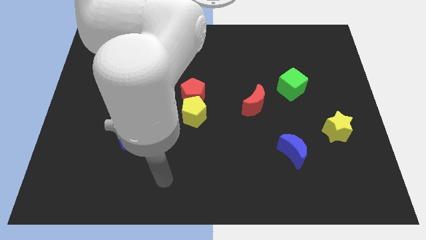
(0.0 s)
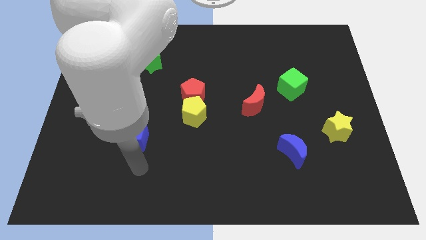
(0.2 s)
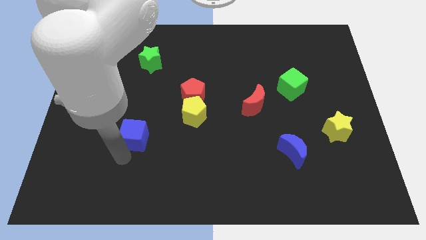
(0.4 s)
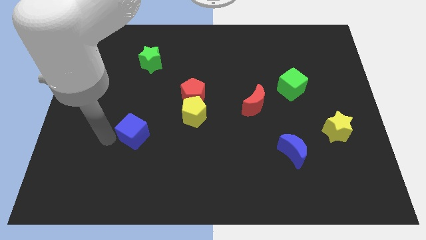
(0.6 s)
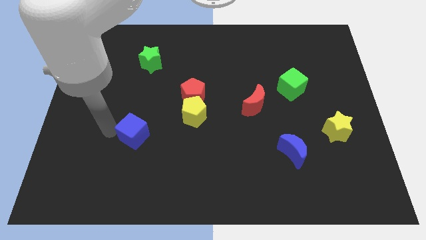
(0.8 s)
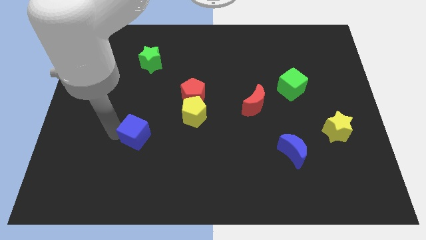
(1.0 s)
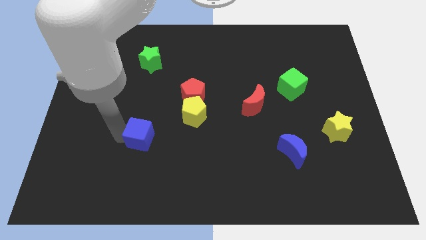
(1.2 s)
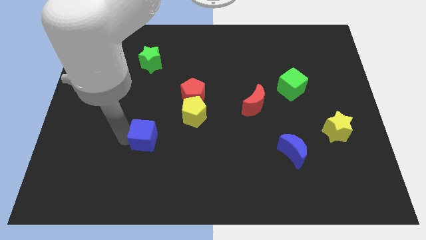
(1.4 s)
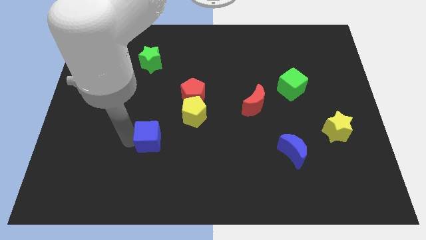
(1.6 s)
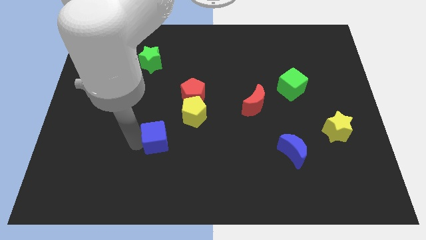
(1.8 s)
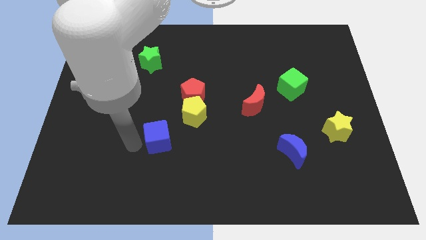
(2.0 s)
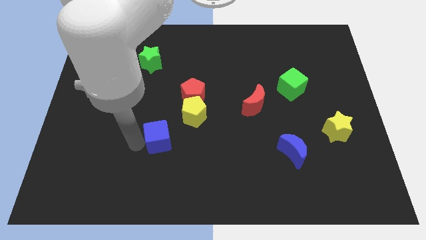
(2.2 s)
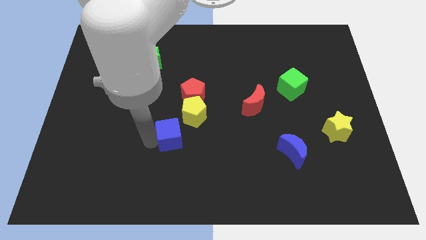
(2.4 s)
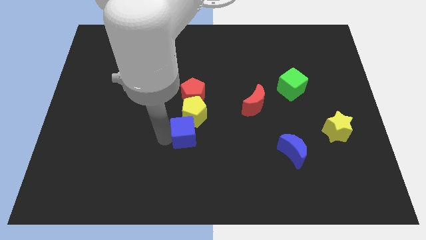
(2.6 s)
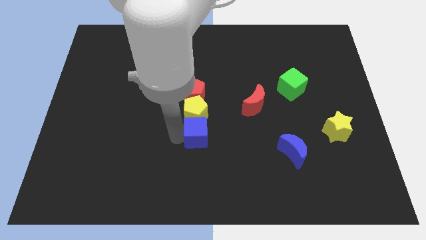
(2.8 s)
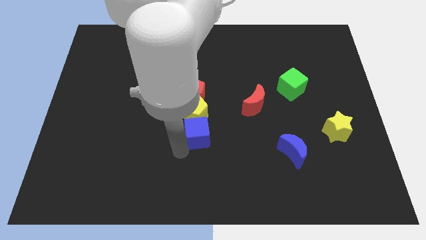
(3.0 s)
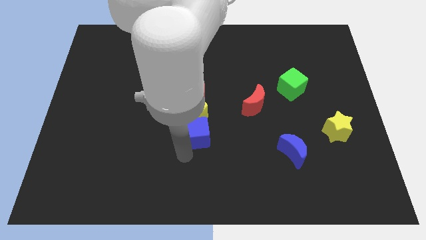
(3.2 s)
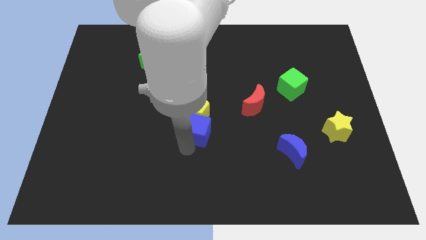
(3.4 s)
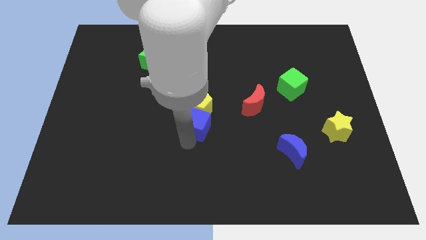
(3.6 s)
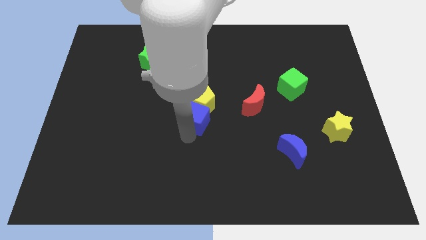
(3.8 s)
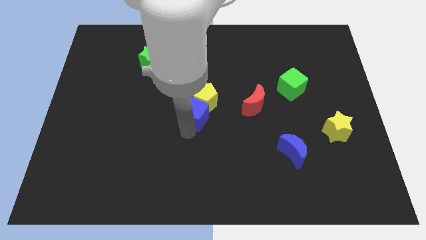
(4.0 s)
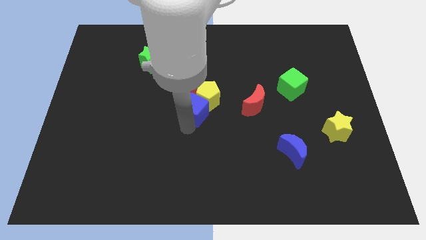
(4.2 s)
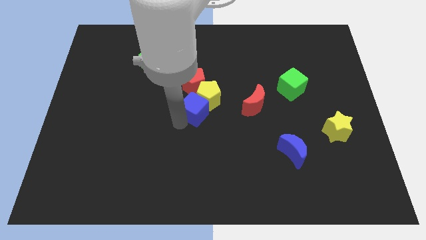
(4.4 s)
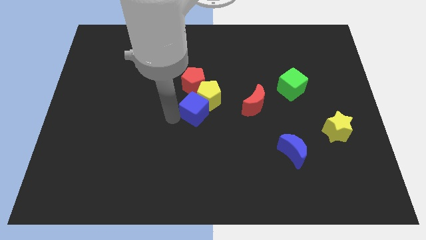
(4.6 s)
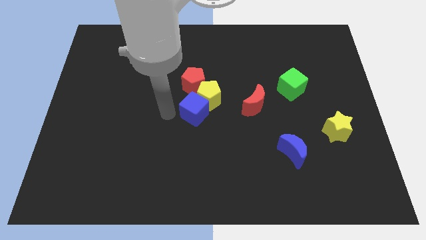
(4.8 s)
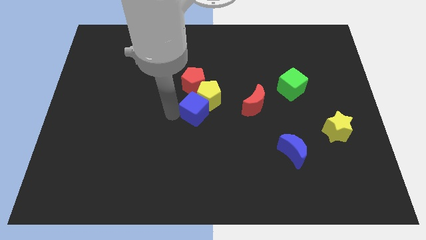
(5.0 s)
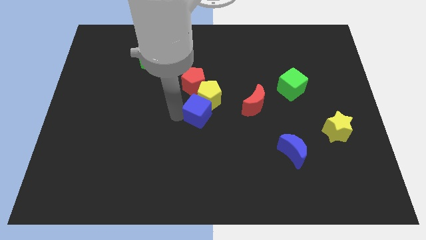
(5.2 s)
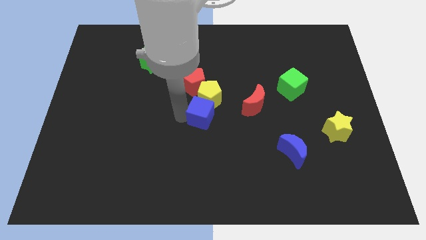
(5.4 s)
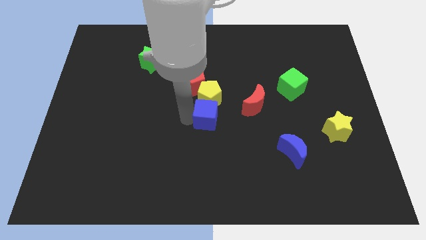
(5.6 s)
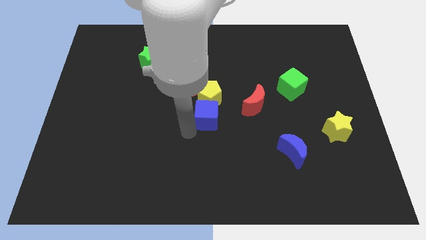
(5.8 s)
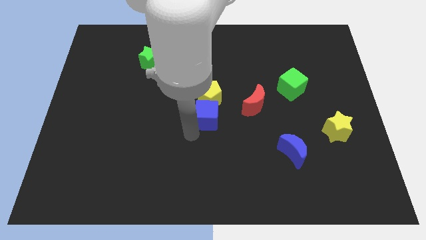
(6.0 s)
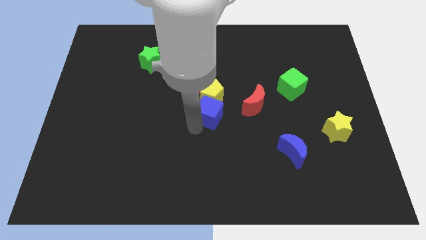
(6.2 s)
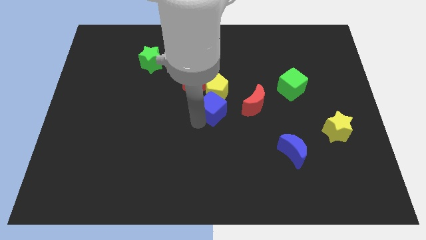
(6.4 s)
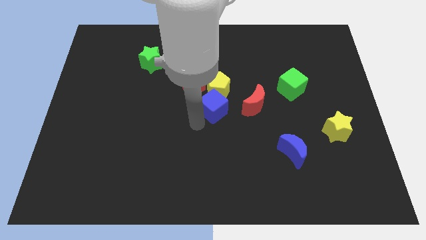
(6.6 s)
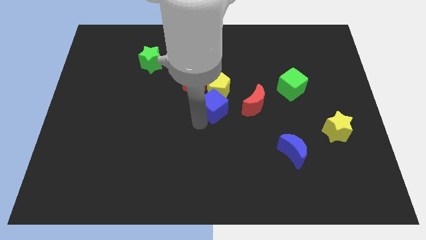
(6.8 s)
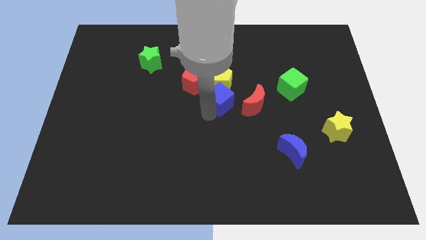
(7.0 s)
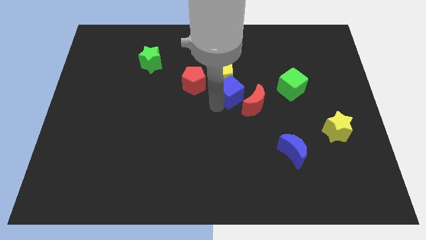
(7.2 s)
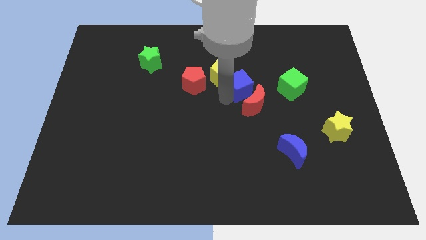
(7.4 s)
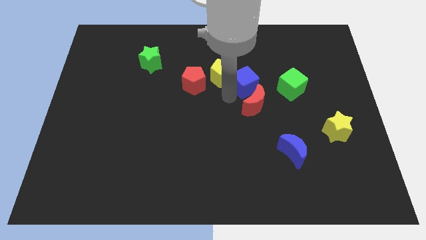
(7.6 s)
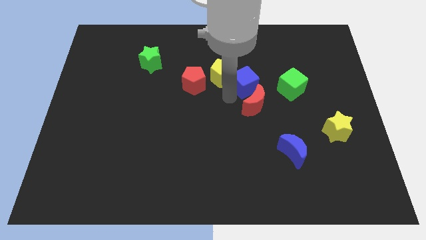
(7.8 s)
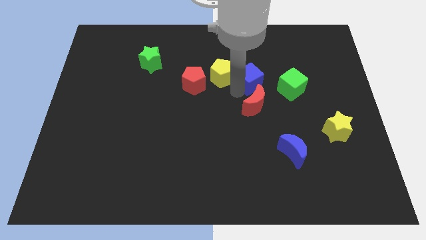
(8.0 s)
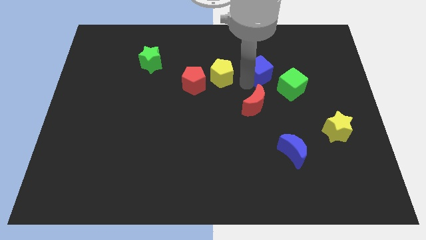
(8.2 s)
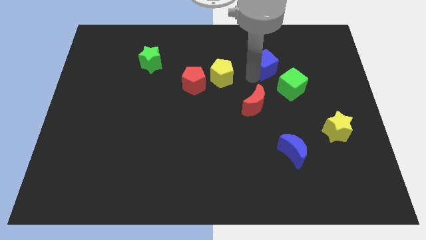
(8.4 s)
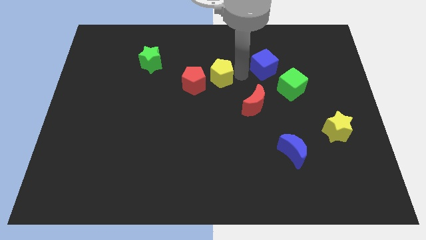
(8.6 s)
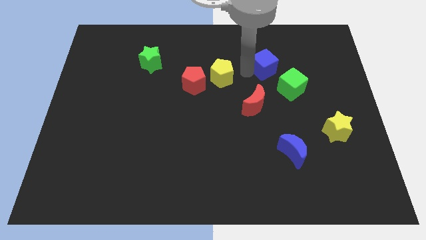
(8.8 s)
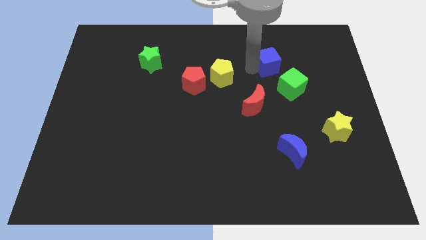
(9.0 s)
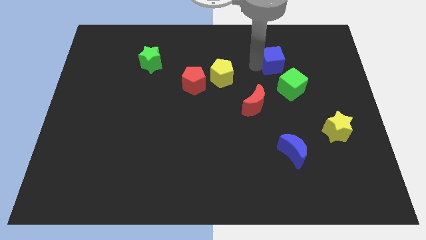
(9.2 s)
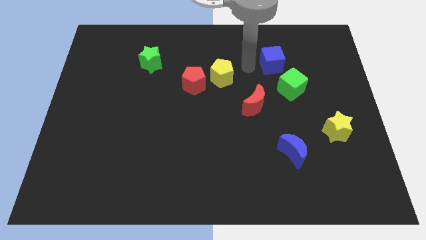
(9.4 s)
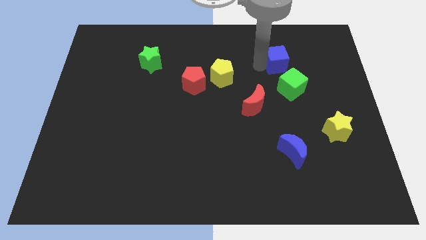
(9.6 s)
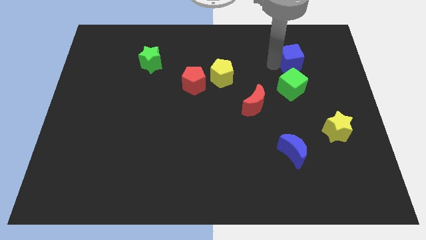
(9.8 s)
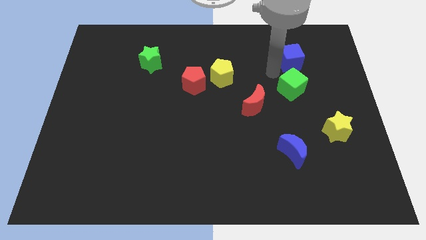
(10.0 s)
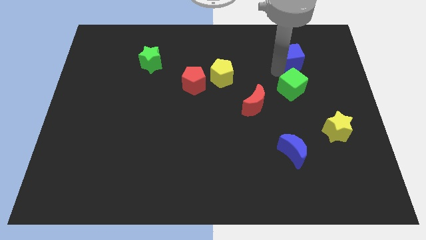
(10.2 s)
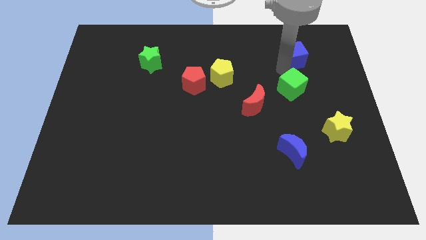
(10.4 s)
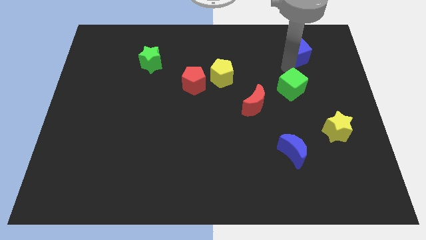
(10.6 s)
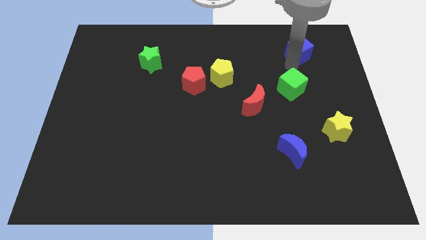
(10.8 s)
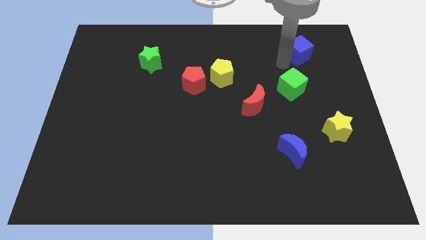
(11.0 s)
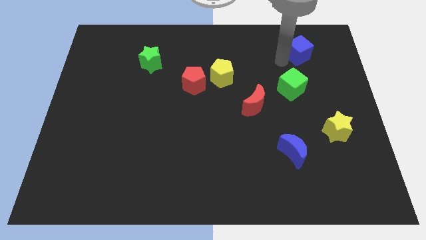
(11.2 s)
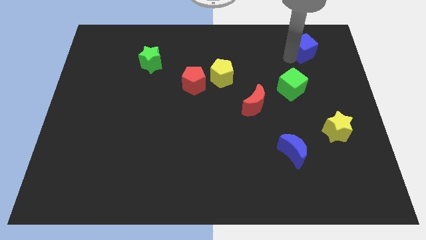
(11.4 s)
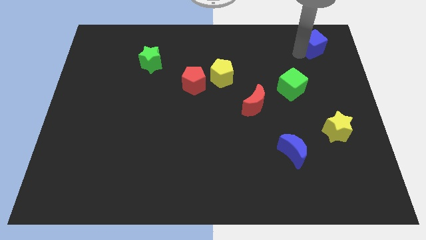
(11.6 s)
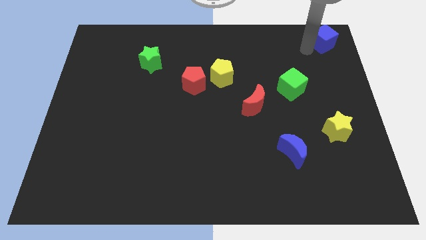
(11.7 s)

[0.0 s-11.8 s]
put the blue cube to the upper right corner

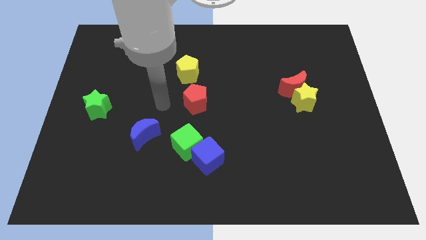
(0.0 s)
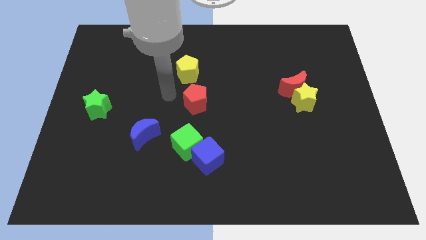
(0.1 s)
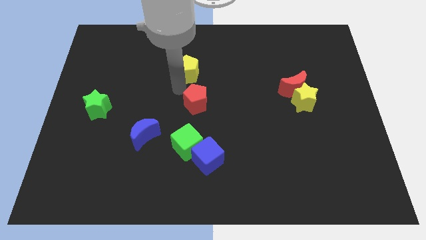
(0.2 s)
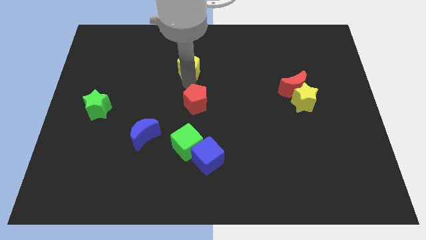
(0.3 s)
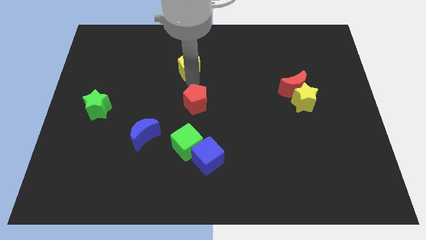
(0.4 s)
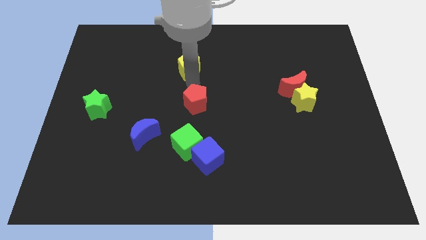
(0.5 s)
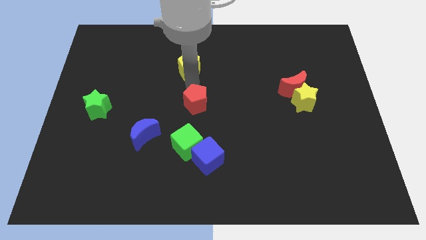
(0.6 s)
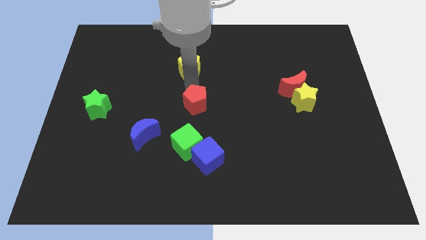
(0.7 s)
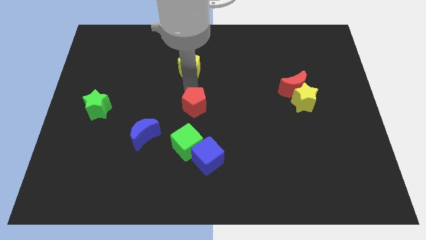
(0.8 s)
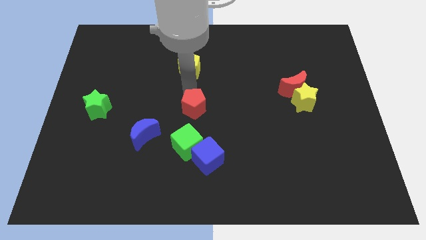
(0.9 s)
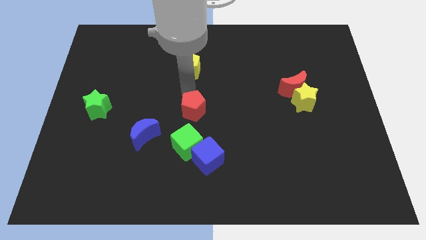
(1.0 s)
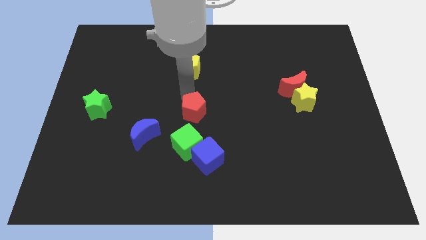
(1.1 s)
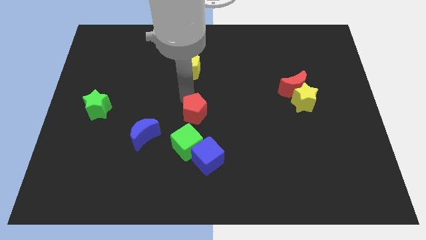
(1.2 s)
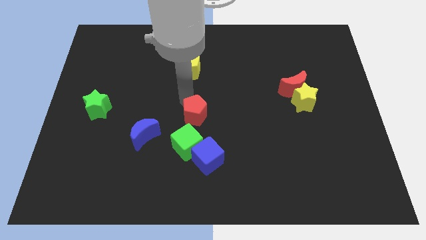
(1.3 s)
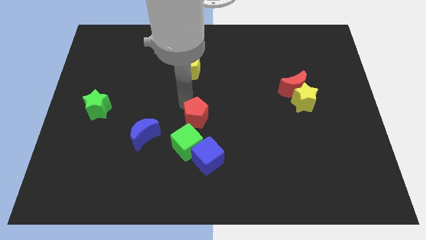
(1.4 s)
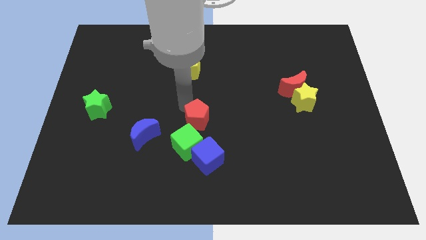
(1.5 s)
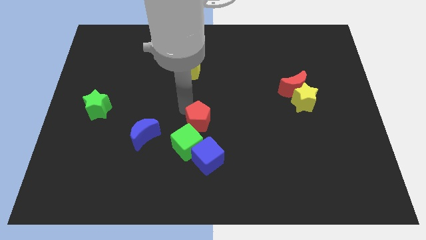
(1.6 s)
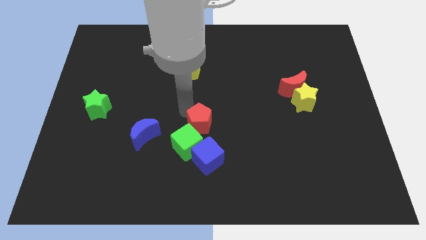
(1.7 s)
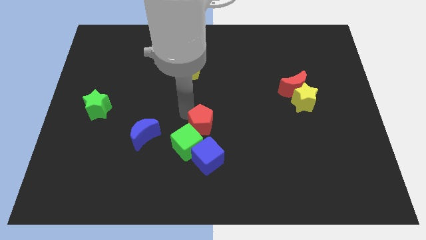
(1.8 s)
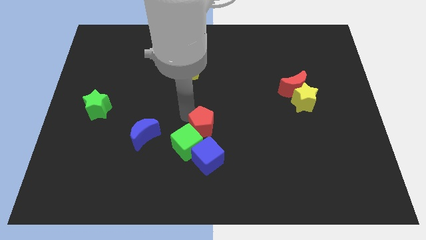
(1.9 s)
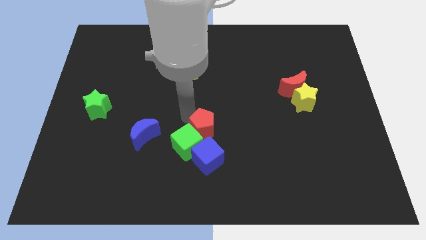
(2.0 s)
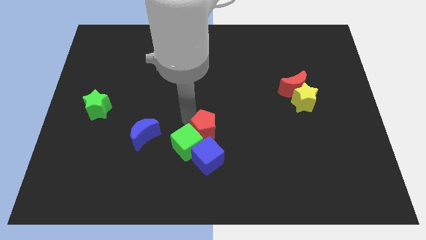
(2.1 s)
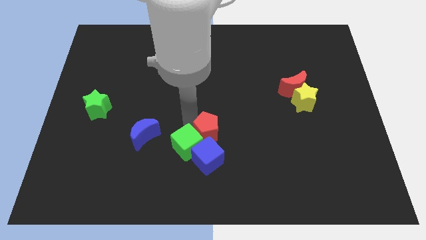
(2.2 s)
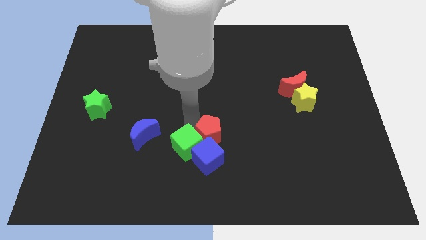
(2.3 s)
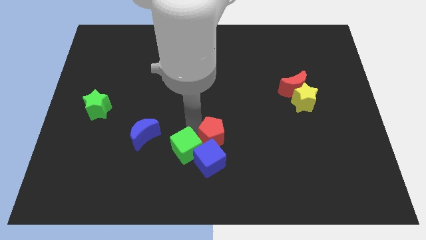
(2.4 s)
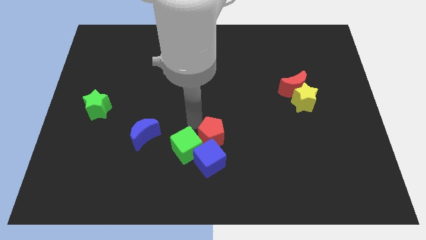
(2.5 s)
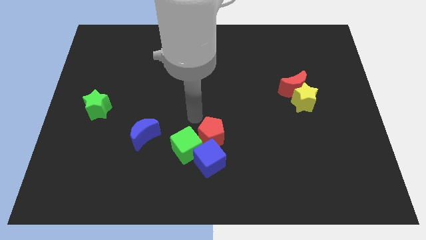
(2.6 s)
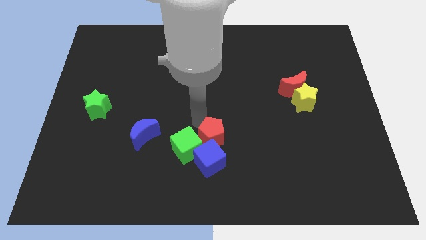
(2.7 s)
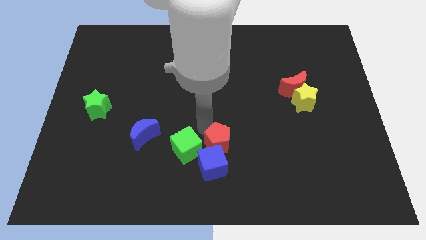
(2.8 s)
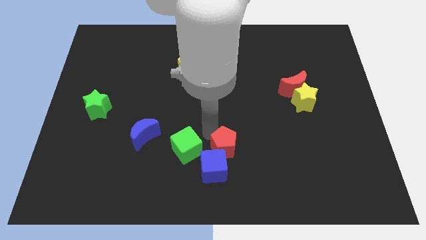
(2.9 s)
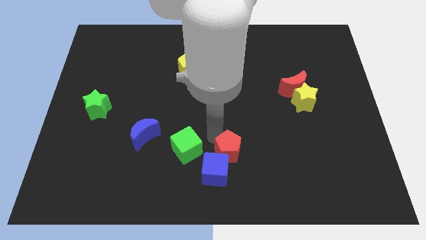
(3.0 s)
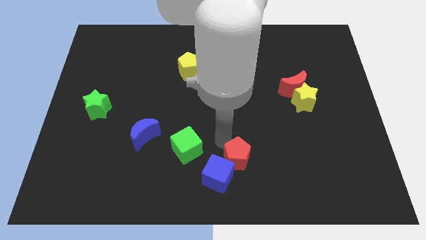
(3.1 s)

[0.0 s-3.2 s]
slide the red pentagon to the bottom
